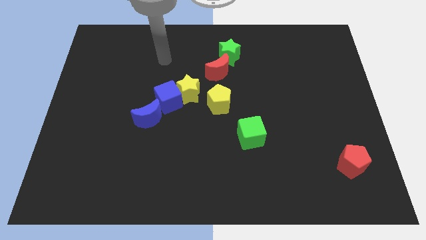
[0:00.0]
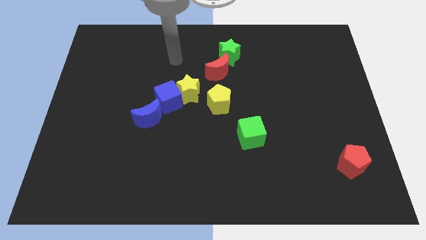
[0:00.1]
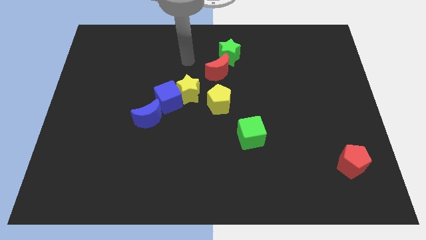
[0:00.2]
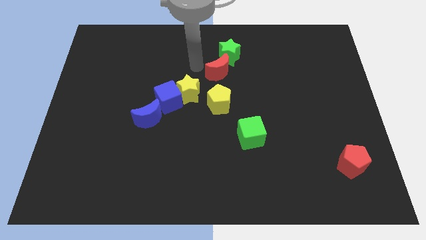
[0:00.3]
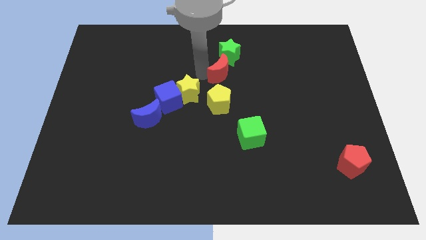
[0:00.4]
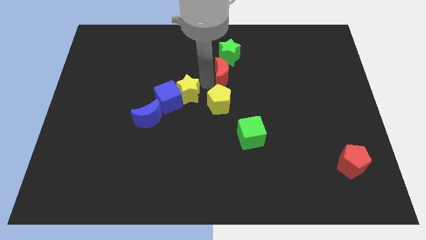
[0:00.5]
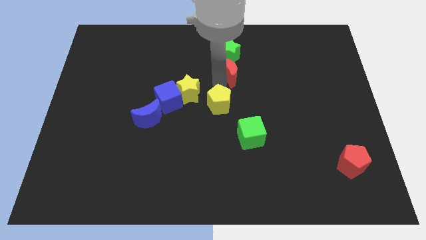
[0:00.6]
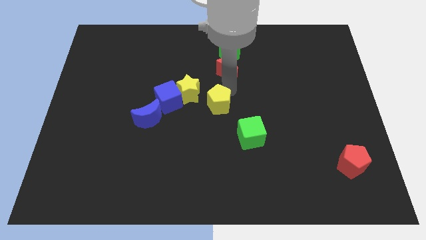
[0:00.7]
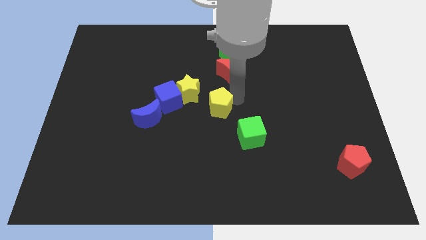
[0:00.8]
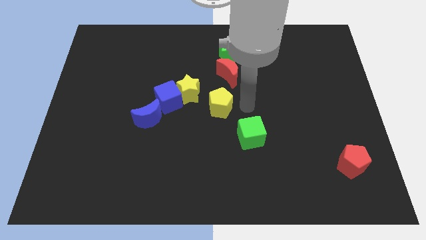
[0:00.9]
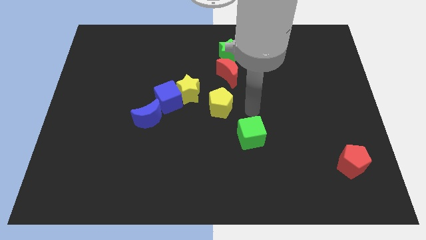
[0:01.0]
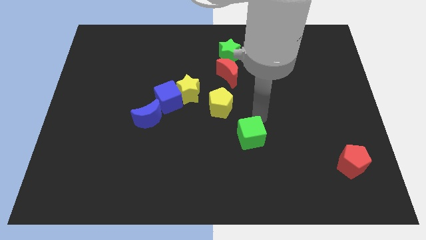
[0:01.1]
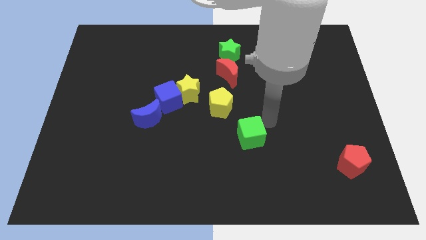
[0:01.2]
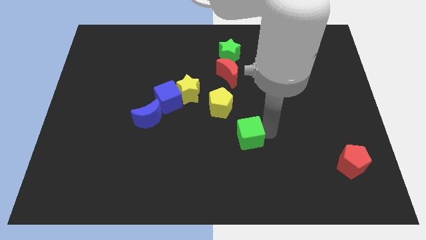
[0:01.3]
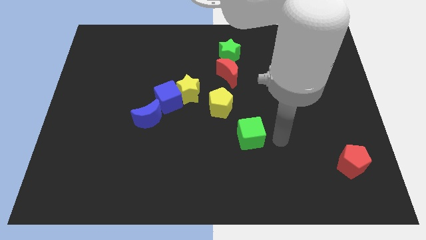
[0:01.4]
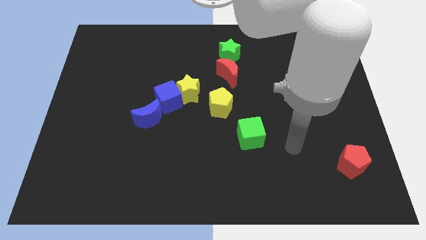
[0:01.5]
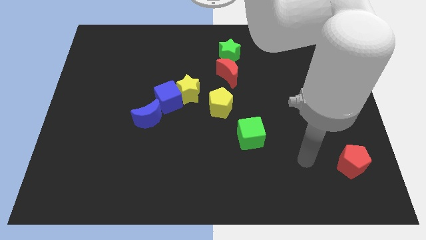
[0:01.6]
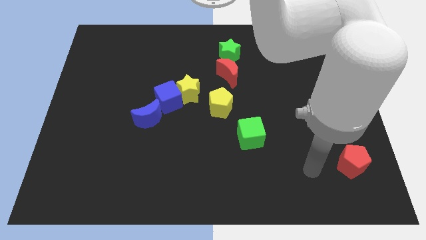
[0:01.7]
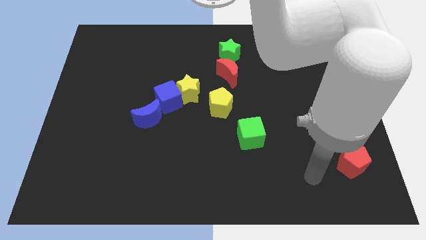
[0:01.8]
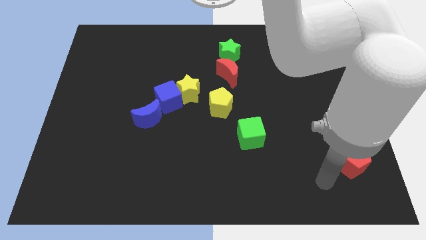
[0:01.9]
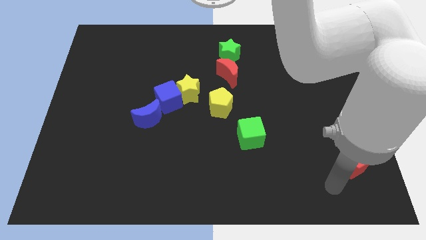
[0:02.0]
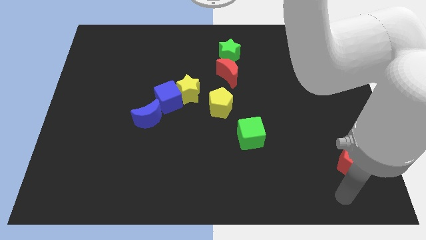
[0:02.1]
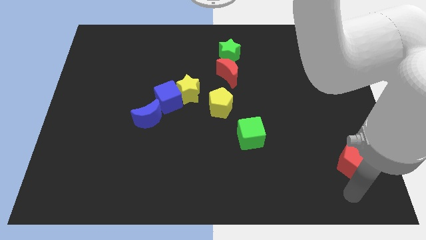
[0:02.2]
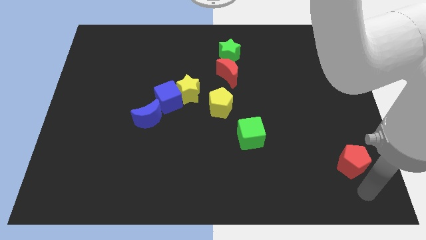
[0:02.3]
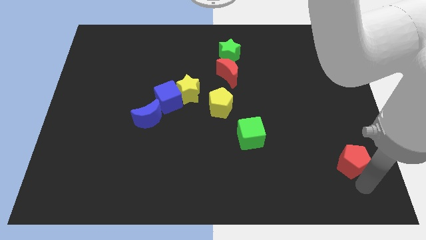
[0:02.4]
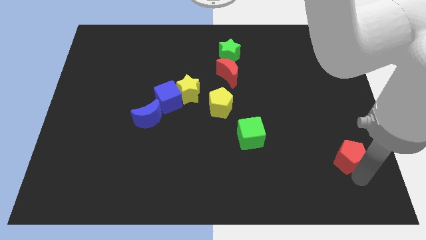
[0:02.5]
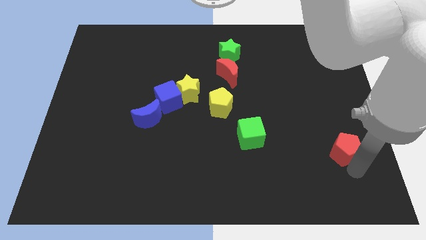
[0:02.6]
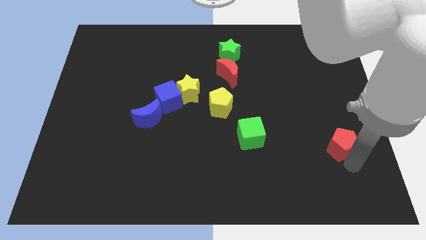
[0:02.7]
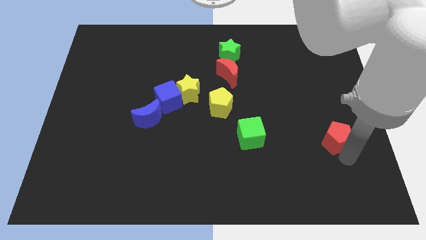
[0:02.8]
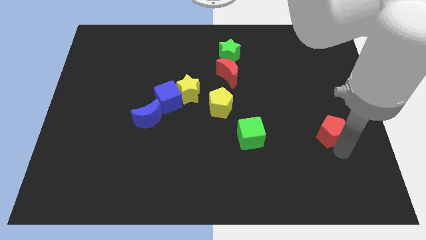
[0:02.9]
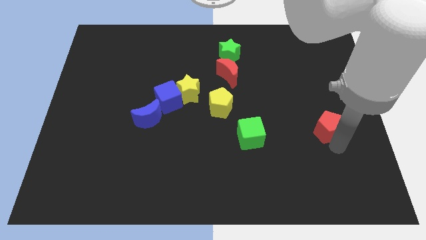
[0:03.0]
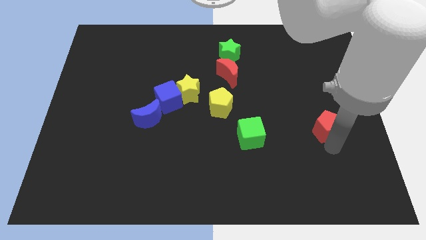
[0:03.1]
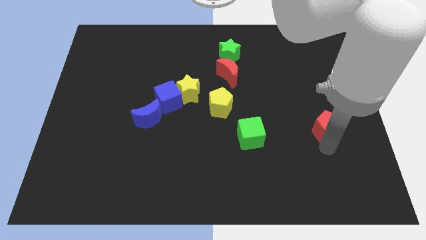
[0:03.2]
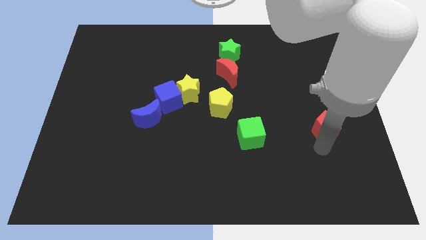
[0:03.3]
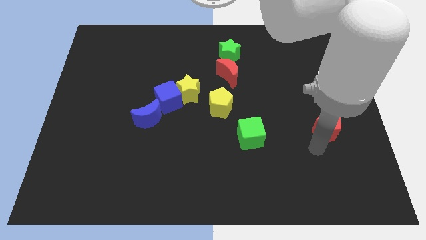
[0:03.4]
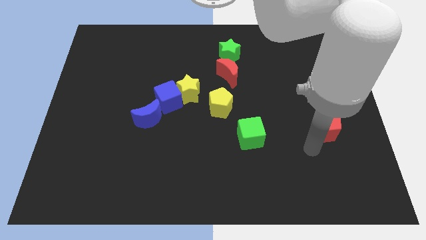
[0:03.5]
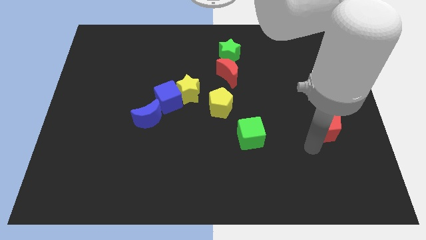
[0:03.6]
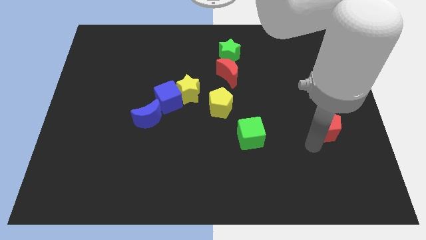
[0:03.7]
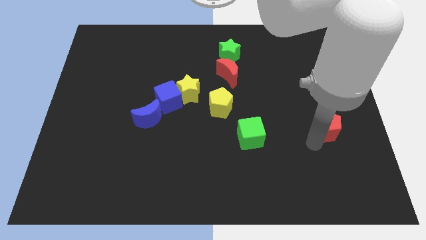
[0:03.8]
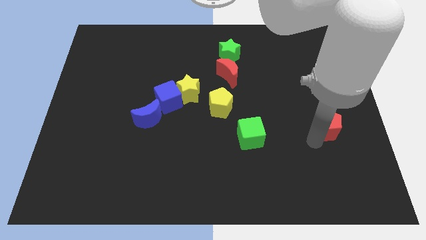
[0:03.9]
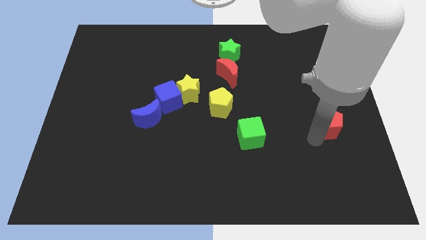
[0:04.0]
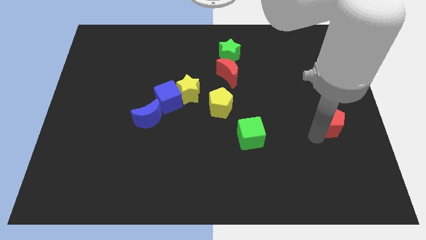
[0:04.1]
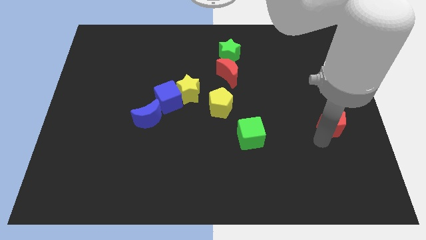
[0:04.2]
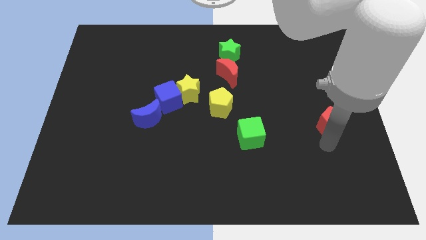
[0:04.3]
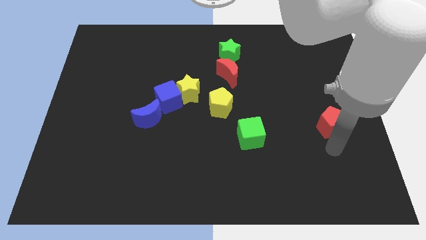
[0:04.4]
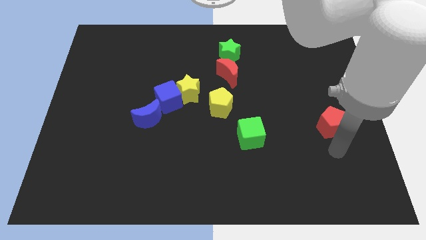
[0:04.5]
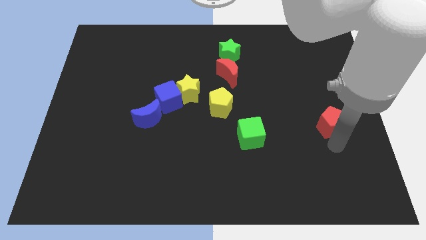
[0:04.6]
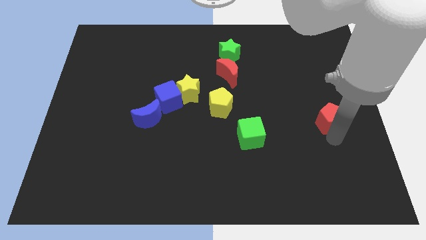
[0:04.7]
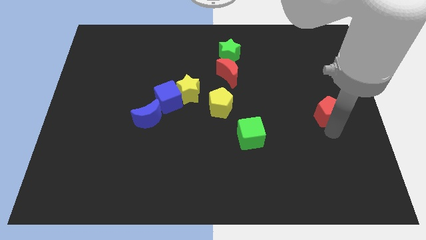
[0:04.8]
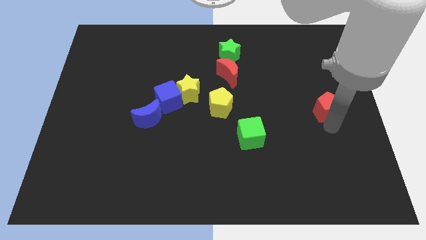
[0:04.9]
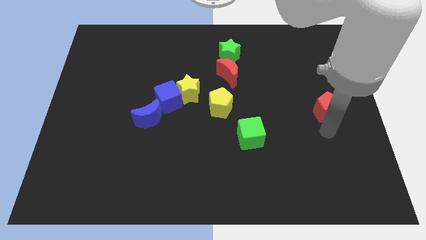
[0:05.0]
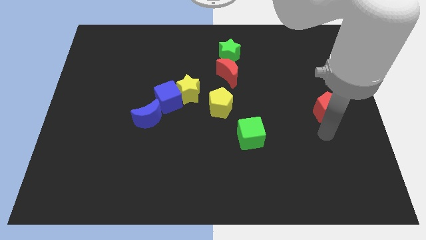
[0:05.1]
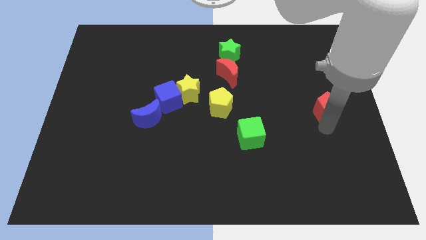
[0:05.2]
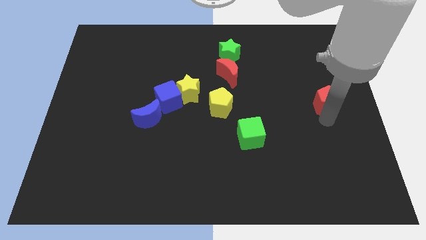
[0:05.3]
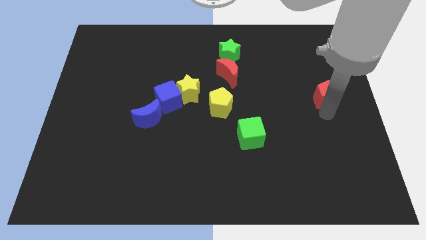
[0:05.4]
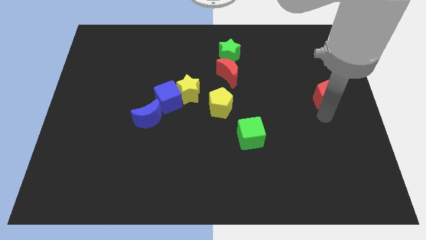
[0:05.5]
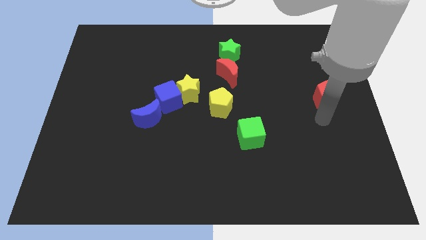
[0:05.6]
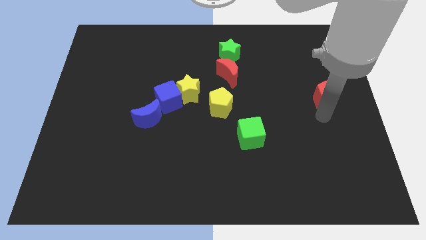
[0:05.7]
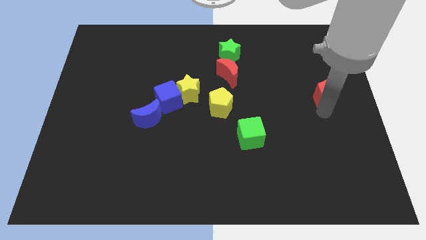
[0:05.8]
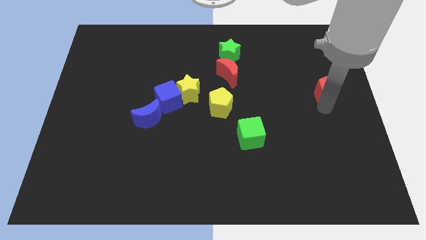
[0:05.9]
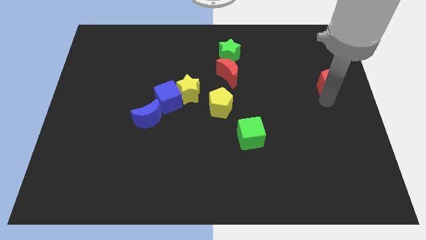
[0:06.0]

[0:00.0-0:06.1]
push the red pentagon upwards

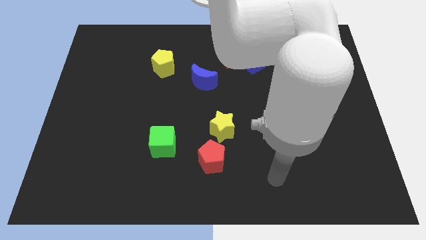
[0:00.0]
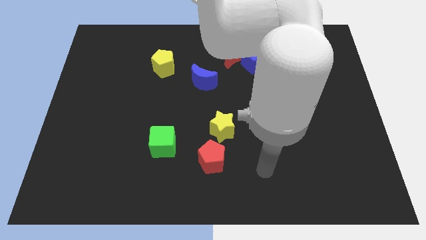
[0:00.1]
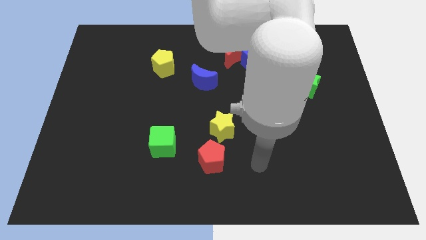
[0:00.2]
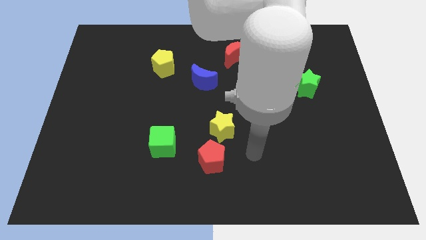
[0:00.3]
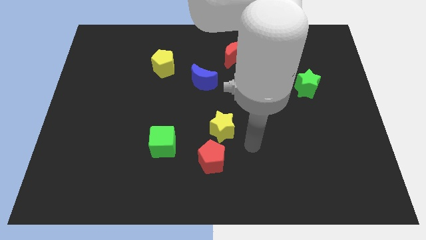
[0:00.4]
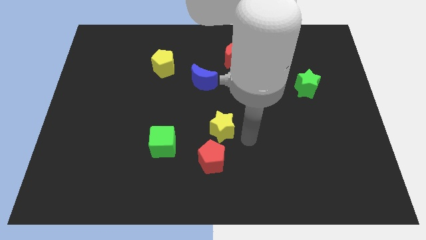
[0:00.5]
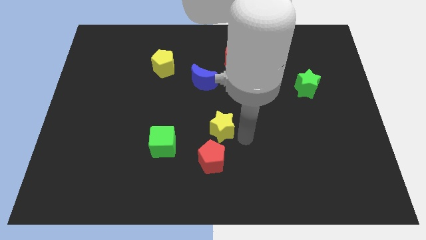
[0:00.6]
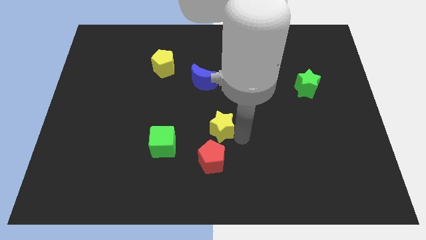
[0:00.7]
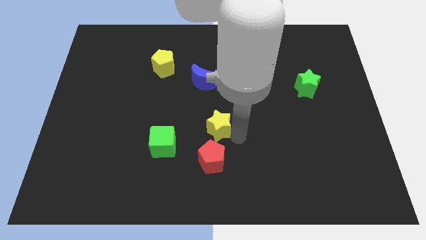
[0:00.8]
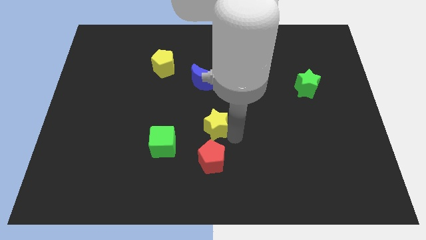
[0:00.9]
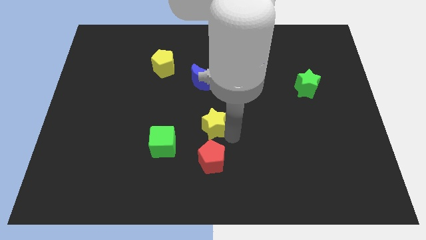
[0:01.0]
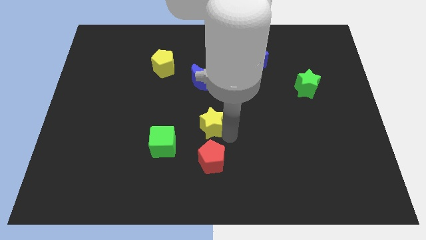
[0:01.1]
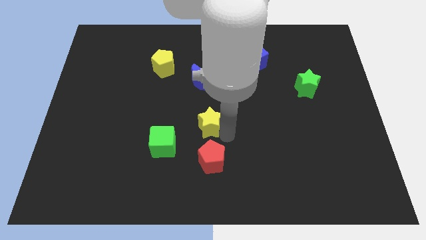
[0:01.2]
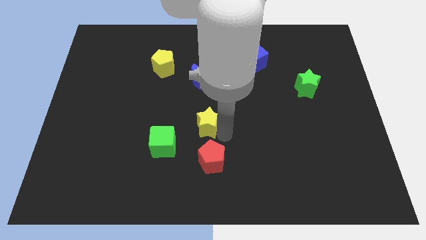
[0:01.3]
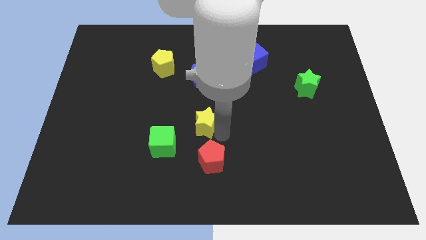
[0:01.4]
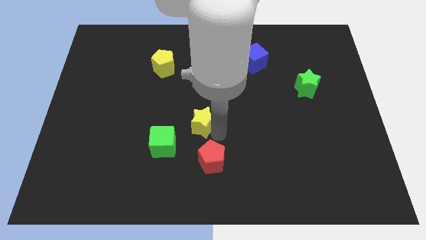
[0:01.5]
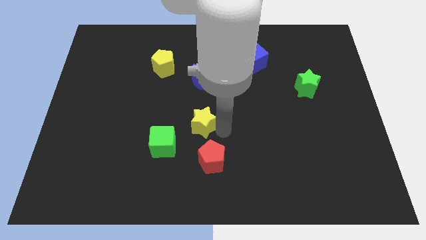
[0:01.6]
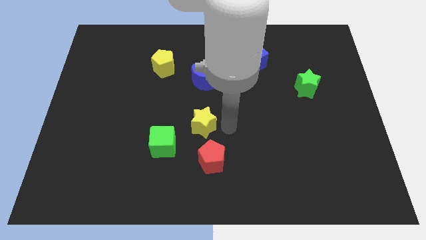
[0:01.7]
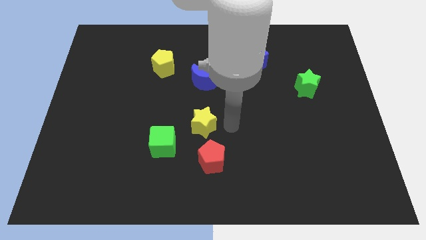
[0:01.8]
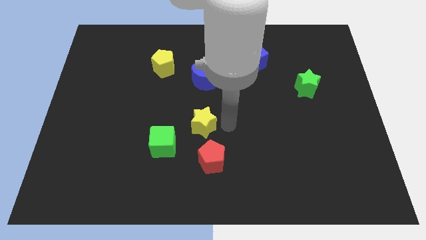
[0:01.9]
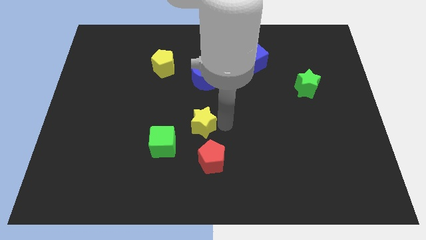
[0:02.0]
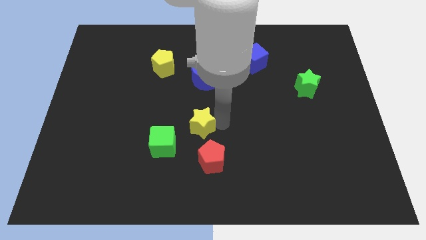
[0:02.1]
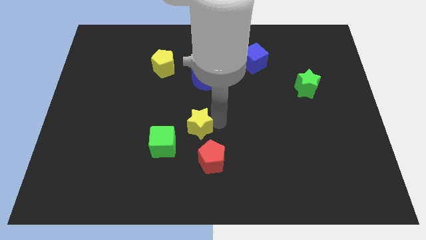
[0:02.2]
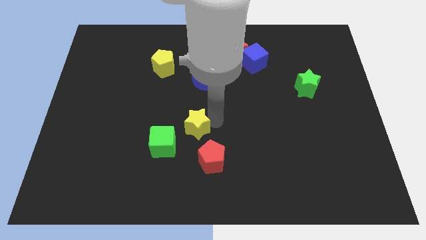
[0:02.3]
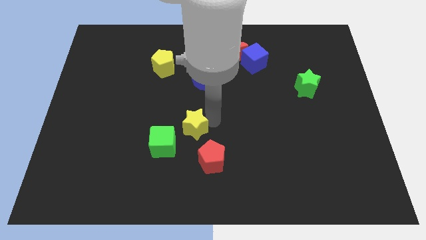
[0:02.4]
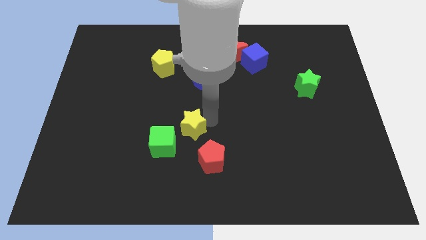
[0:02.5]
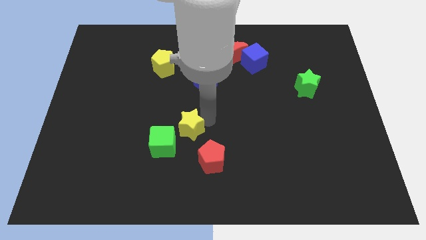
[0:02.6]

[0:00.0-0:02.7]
push the yellow star somewhat to the left
